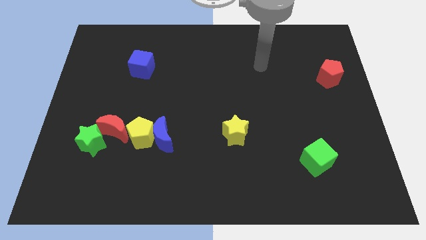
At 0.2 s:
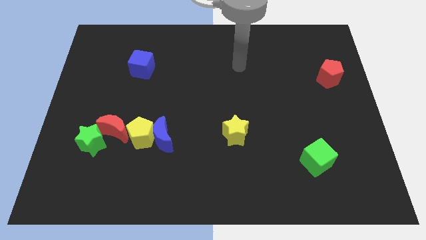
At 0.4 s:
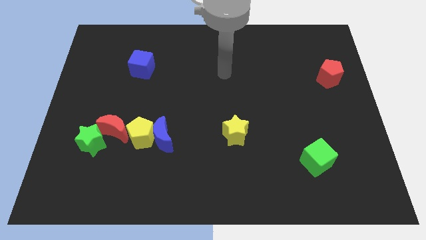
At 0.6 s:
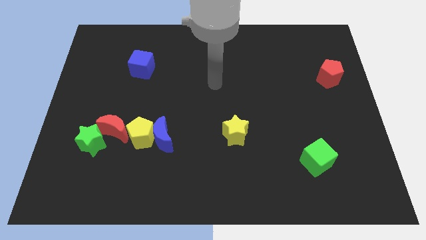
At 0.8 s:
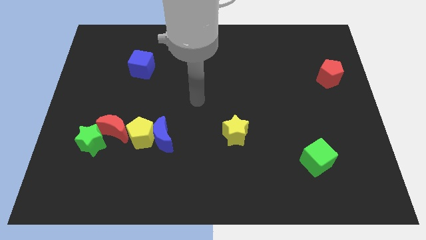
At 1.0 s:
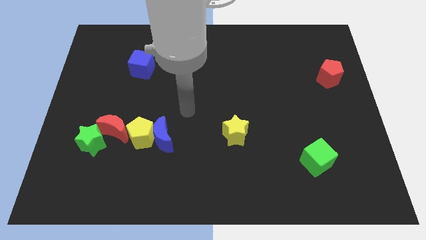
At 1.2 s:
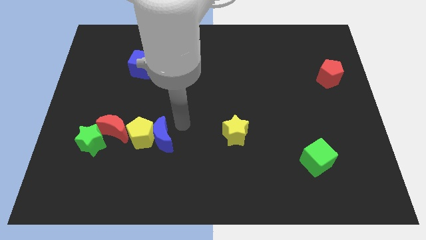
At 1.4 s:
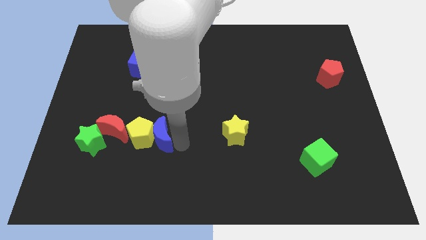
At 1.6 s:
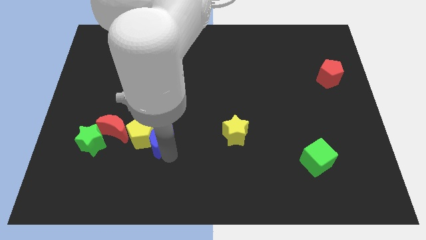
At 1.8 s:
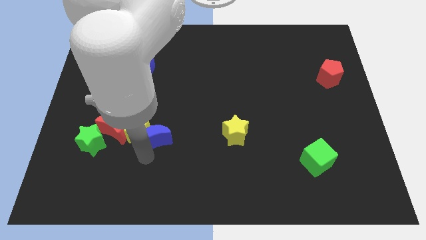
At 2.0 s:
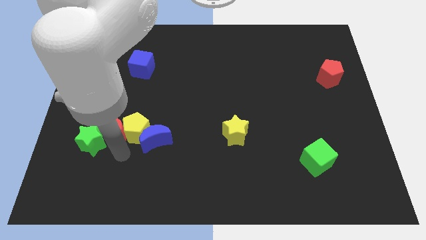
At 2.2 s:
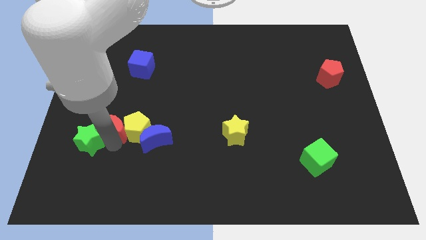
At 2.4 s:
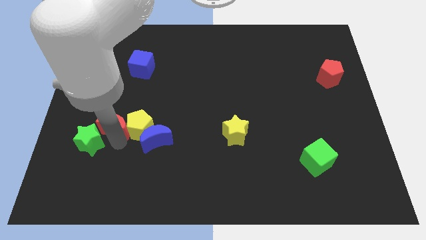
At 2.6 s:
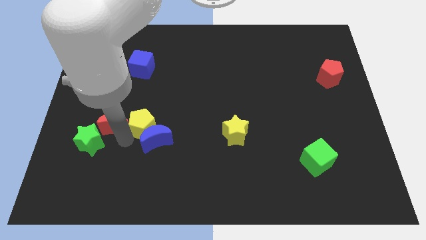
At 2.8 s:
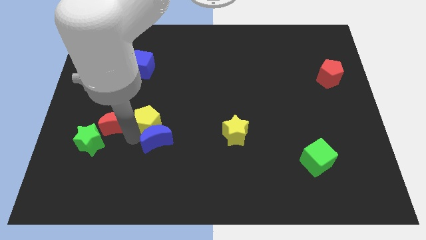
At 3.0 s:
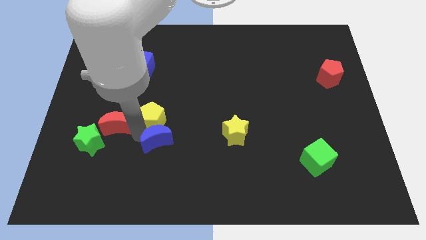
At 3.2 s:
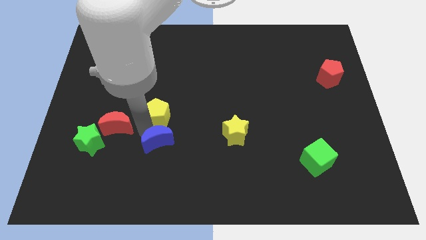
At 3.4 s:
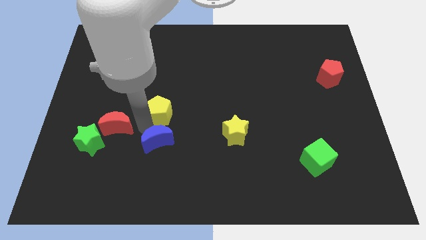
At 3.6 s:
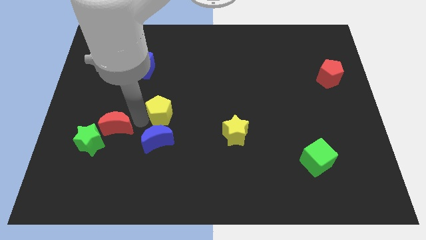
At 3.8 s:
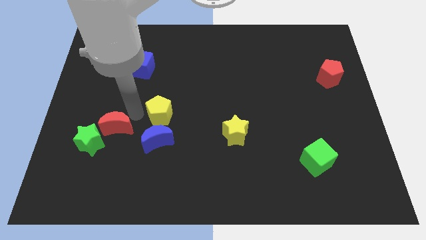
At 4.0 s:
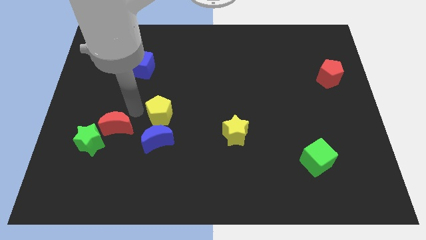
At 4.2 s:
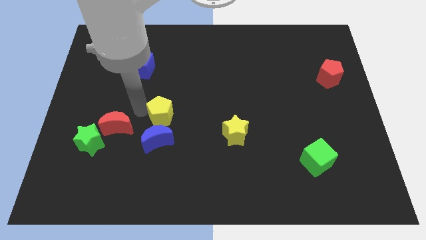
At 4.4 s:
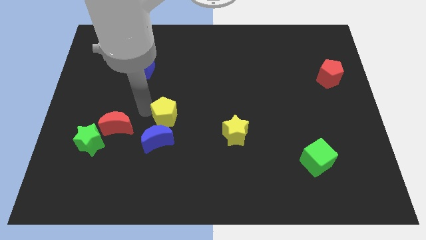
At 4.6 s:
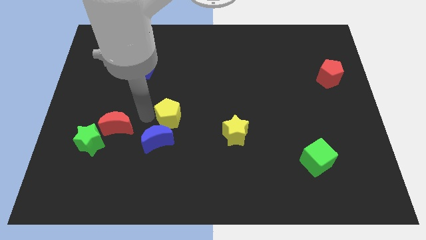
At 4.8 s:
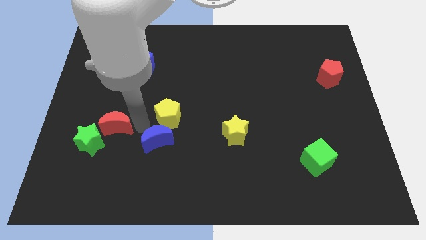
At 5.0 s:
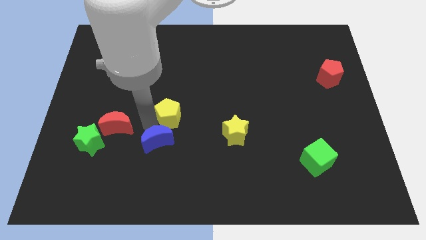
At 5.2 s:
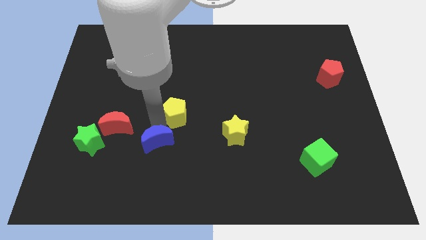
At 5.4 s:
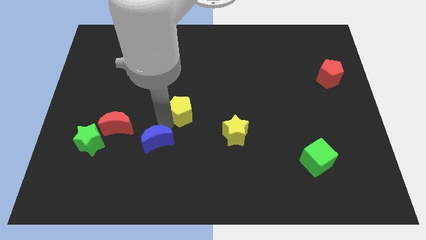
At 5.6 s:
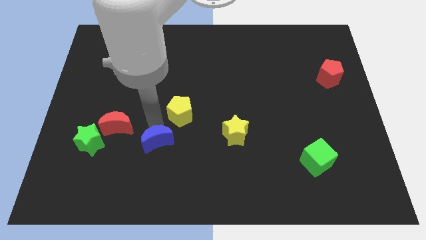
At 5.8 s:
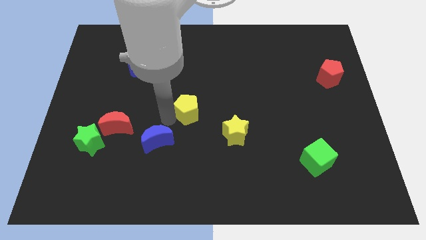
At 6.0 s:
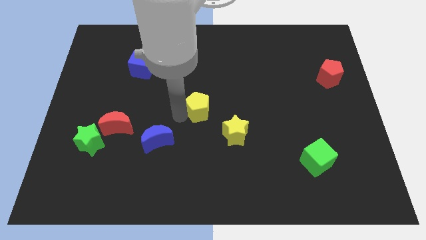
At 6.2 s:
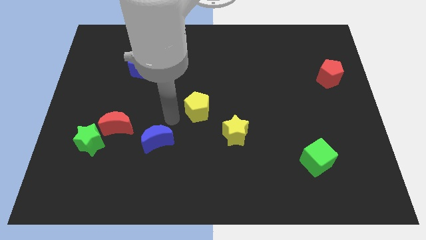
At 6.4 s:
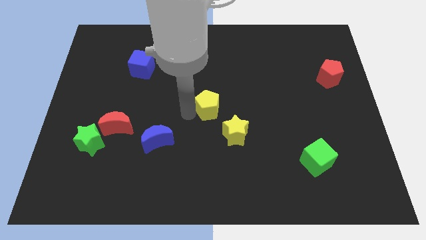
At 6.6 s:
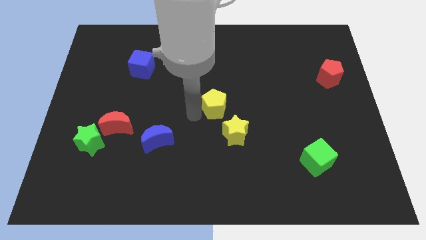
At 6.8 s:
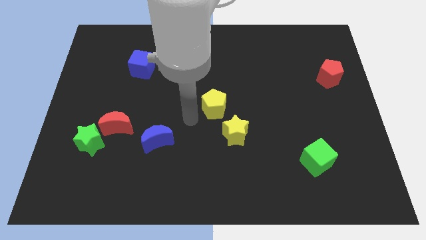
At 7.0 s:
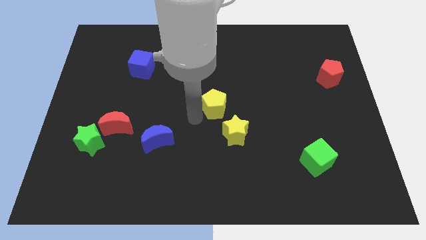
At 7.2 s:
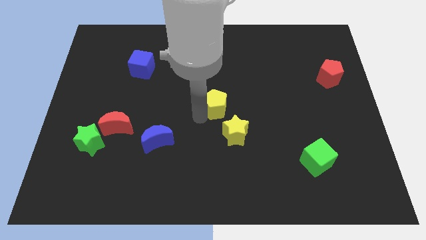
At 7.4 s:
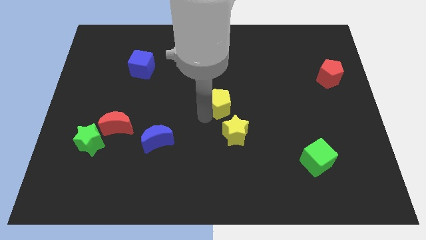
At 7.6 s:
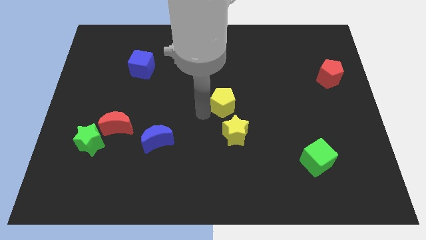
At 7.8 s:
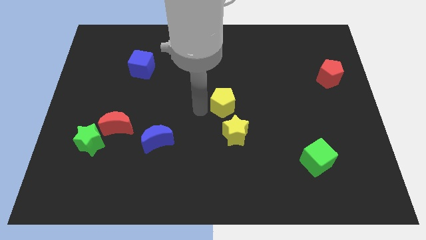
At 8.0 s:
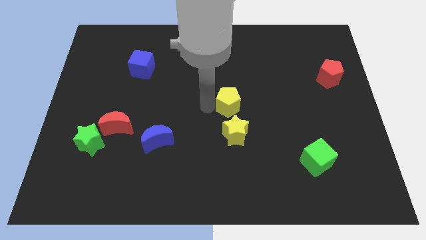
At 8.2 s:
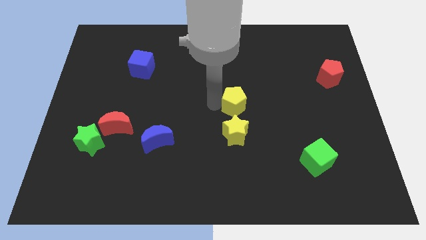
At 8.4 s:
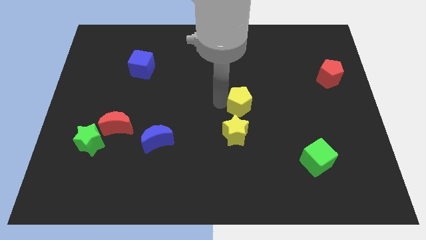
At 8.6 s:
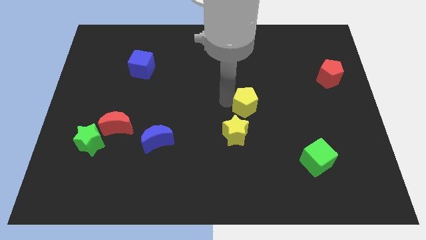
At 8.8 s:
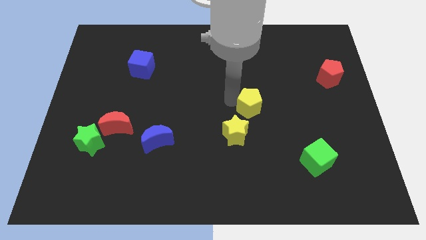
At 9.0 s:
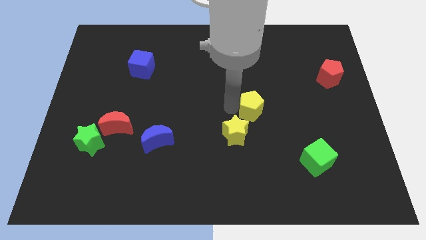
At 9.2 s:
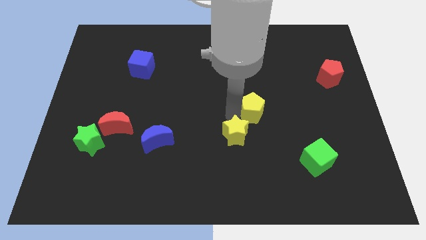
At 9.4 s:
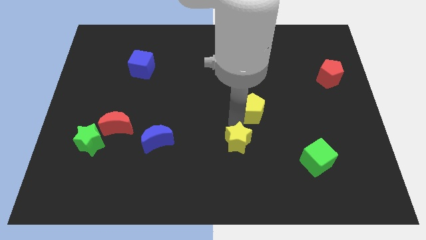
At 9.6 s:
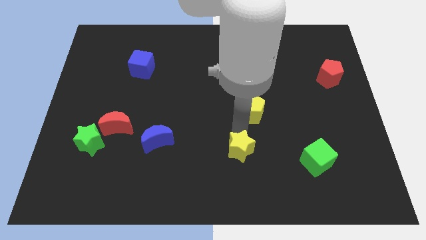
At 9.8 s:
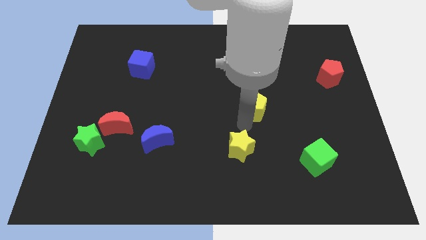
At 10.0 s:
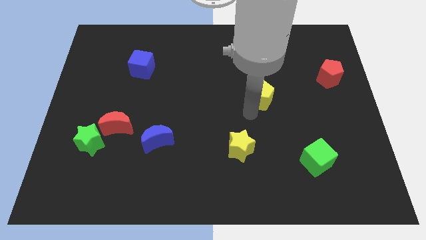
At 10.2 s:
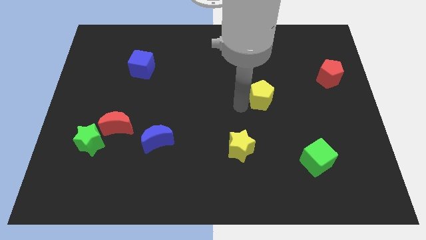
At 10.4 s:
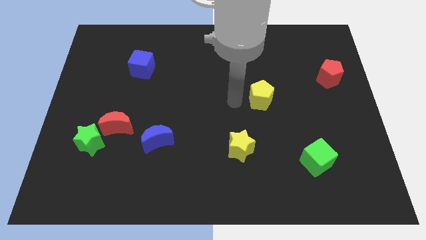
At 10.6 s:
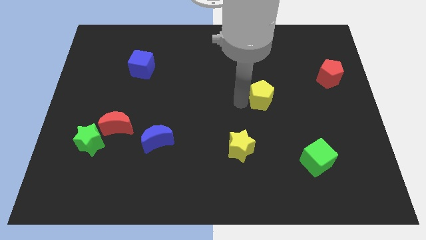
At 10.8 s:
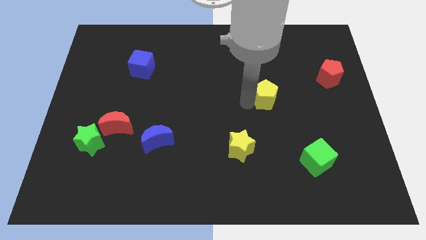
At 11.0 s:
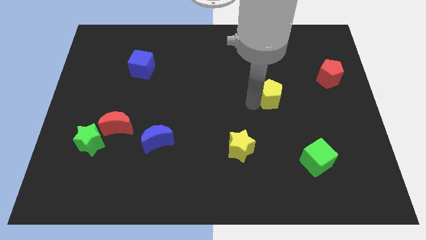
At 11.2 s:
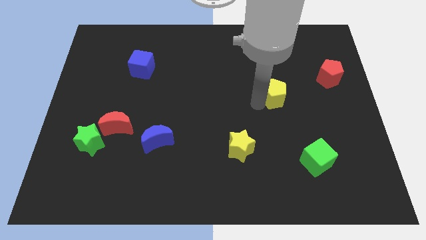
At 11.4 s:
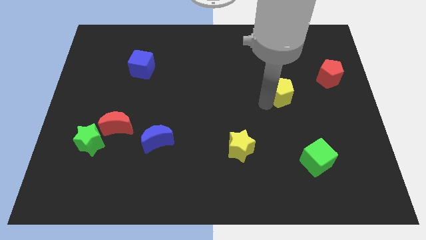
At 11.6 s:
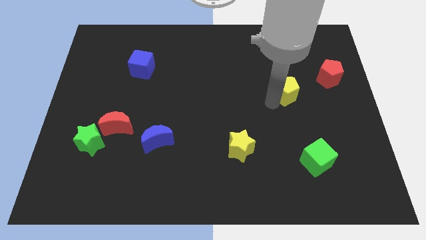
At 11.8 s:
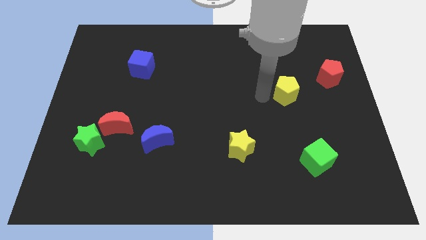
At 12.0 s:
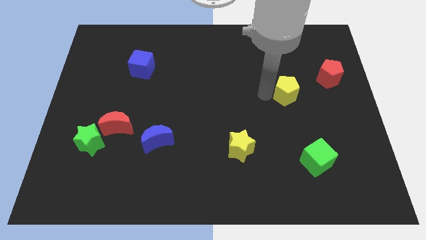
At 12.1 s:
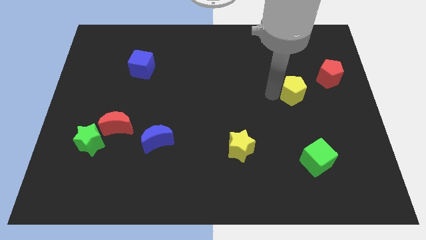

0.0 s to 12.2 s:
slide the yellow pentagon diagonally down and to the left of the red pentagon

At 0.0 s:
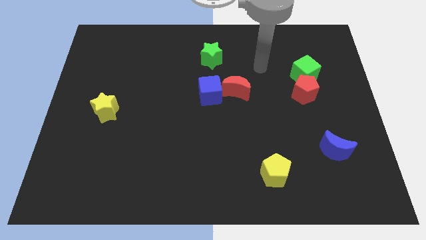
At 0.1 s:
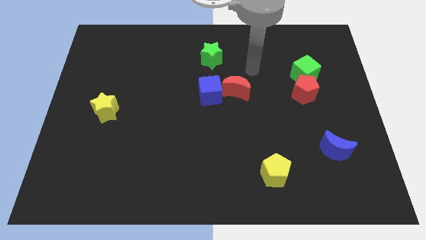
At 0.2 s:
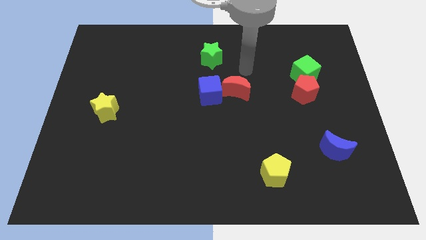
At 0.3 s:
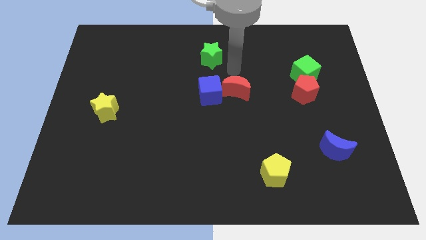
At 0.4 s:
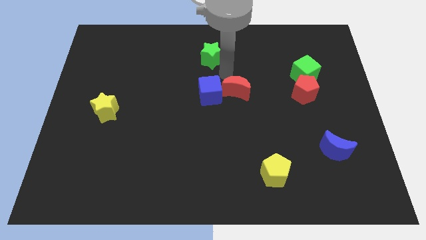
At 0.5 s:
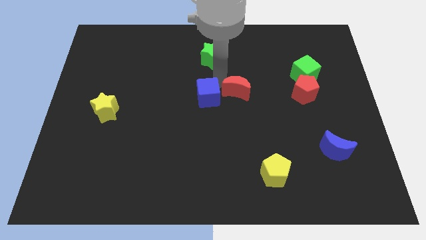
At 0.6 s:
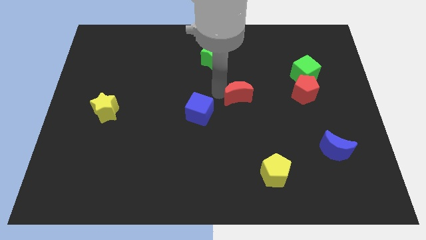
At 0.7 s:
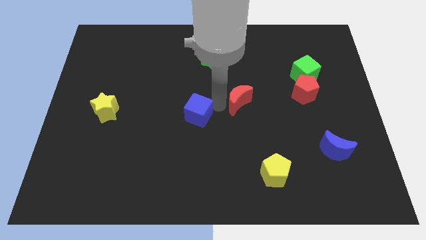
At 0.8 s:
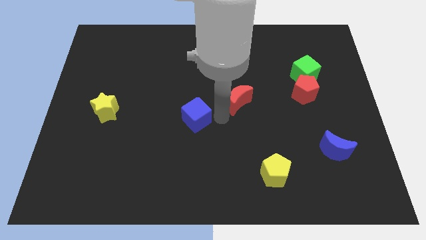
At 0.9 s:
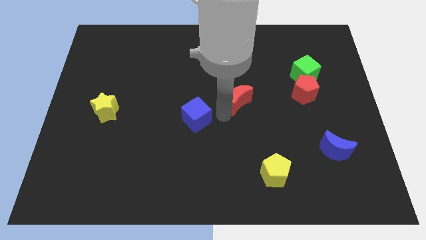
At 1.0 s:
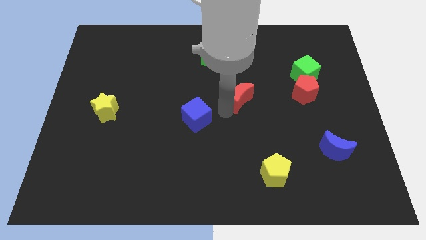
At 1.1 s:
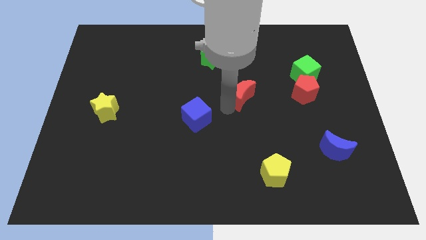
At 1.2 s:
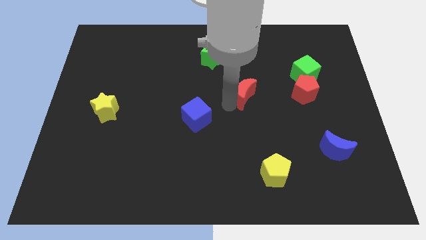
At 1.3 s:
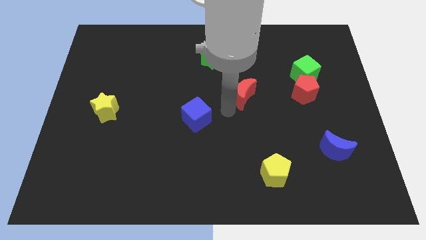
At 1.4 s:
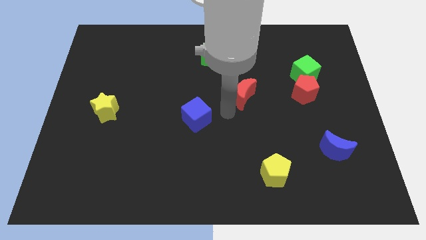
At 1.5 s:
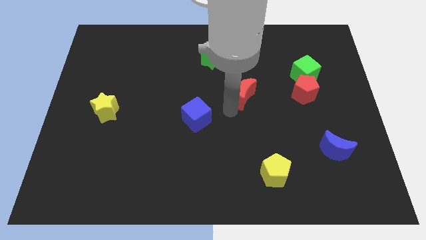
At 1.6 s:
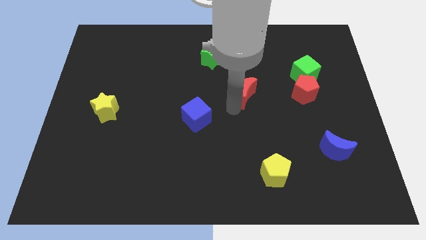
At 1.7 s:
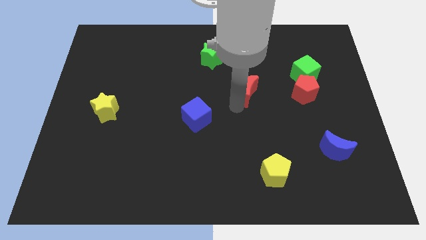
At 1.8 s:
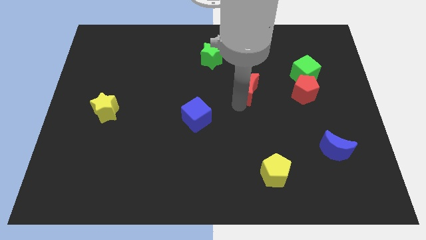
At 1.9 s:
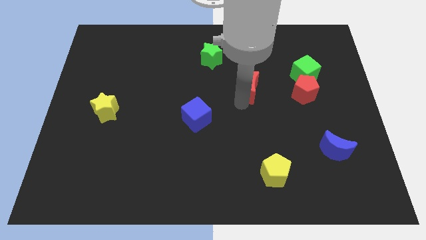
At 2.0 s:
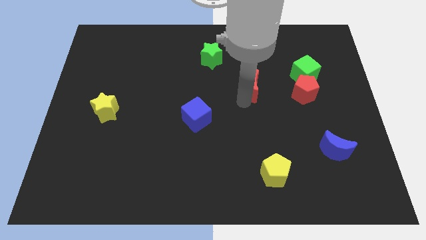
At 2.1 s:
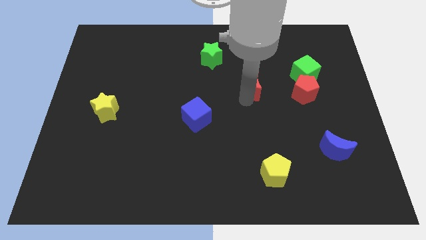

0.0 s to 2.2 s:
put the red moon left of the green cube
